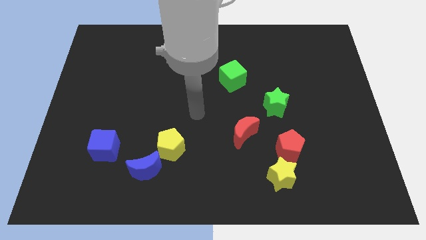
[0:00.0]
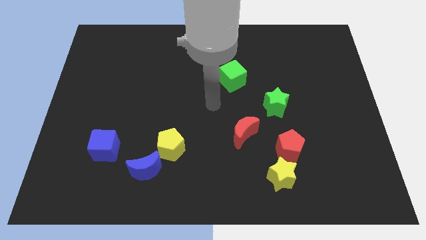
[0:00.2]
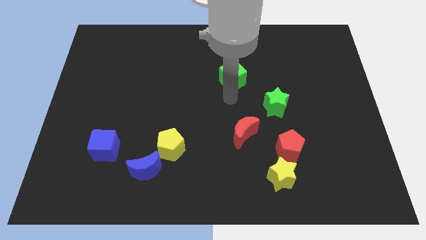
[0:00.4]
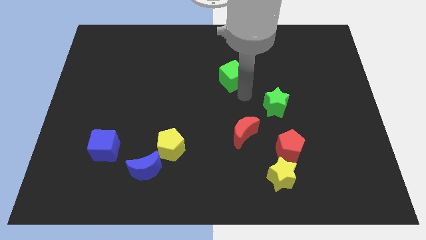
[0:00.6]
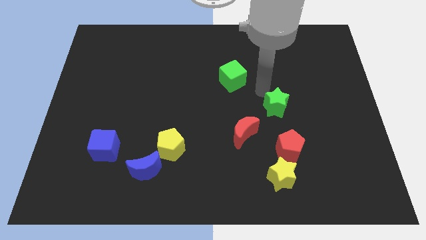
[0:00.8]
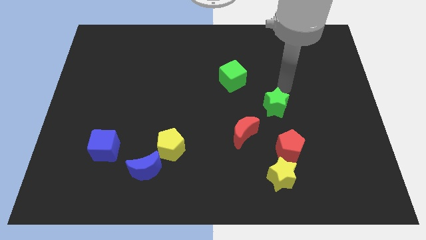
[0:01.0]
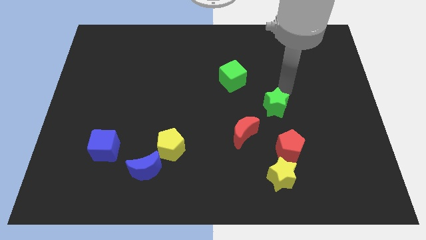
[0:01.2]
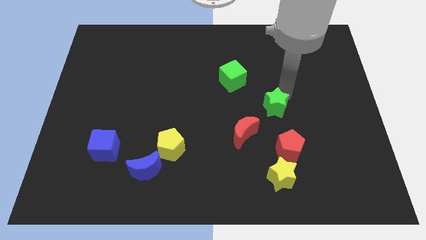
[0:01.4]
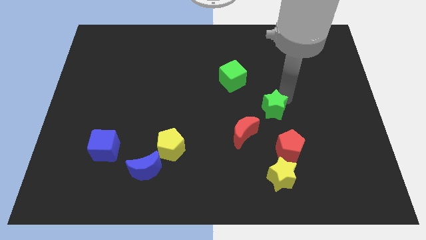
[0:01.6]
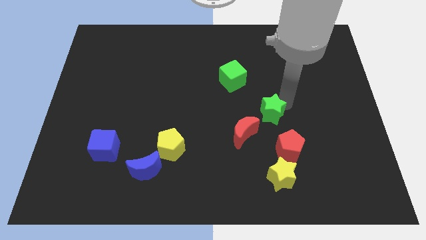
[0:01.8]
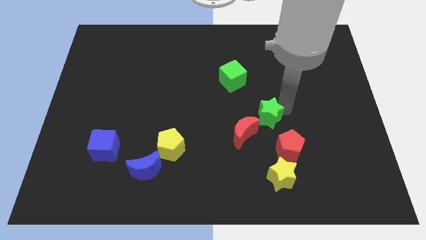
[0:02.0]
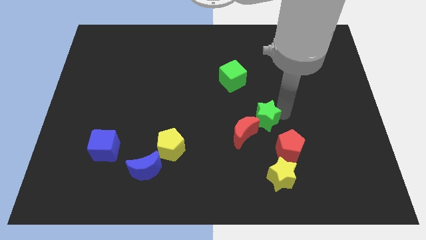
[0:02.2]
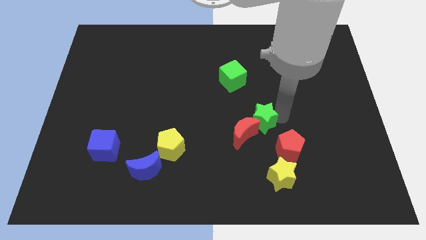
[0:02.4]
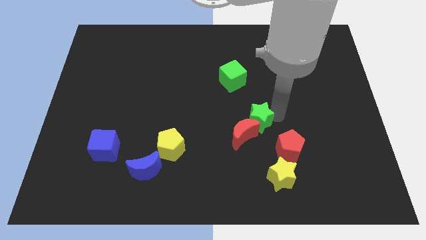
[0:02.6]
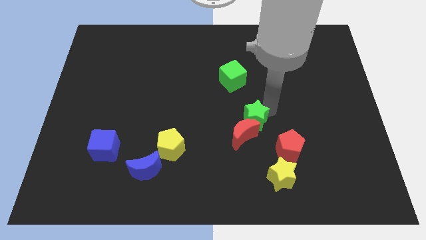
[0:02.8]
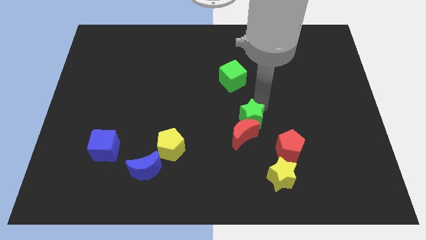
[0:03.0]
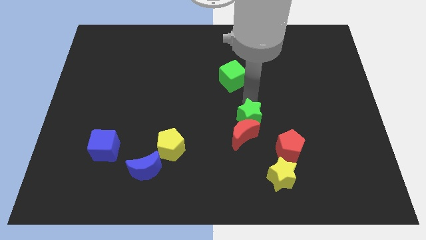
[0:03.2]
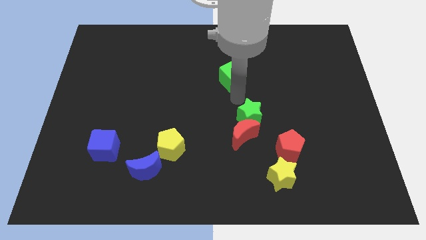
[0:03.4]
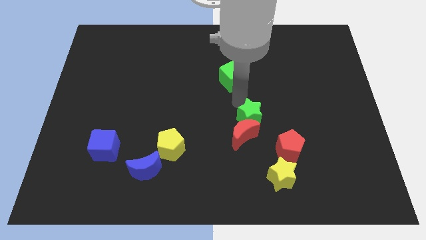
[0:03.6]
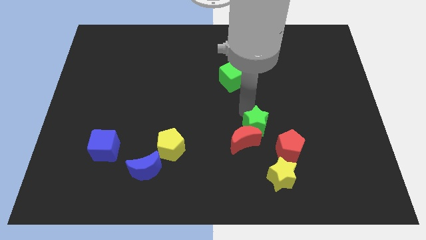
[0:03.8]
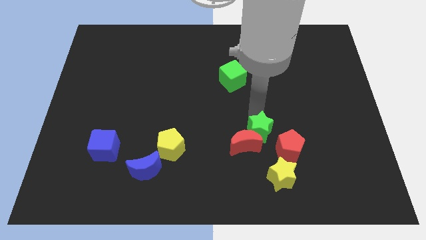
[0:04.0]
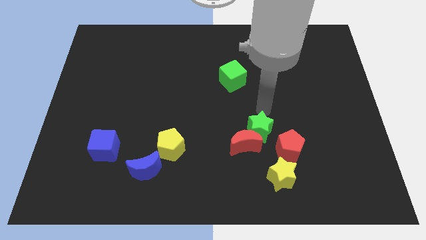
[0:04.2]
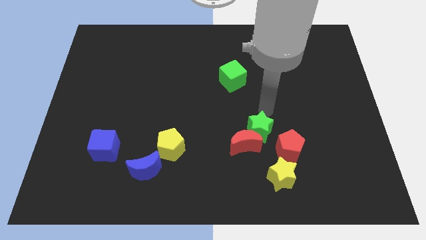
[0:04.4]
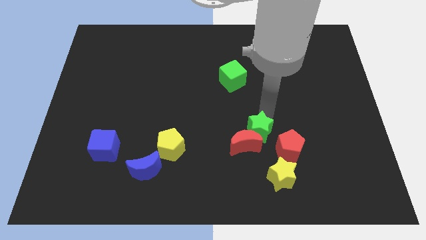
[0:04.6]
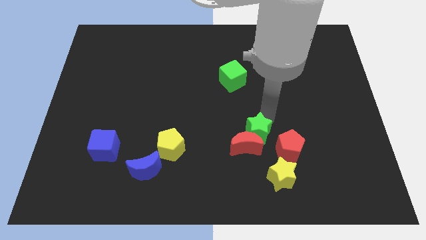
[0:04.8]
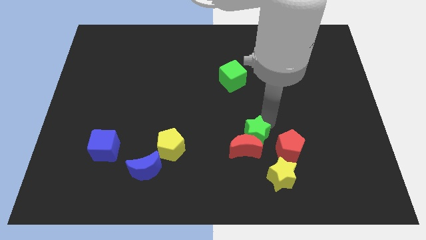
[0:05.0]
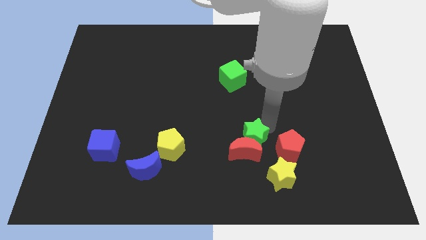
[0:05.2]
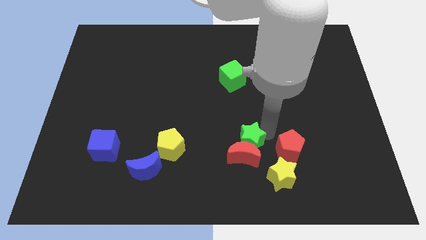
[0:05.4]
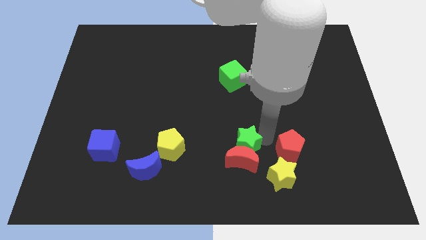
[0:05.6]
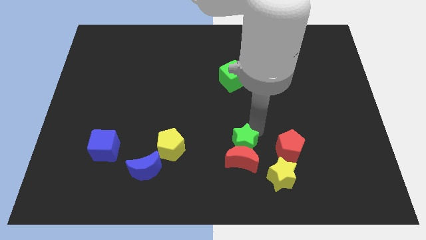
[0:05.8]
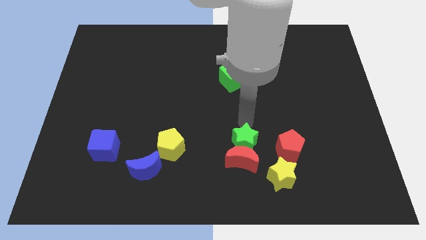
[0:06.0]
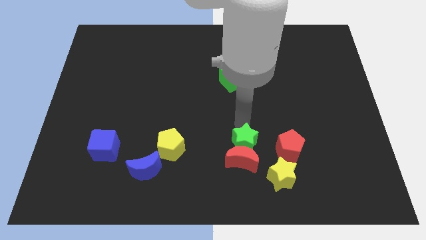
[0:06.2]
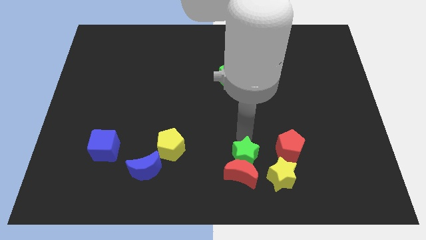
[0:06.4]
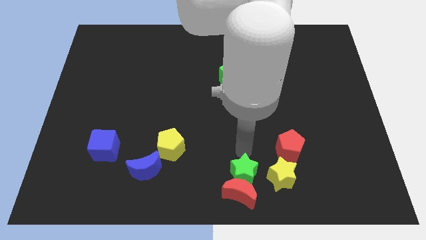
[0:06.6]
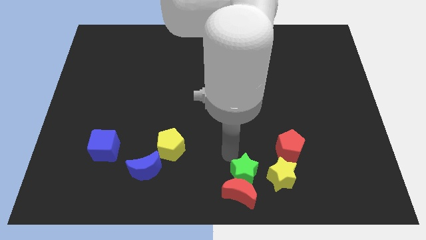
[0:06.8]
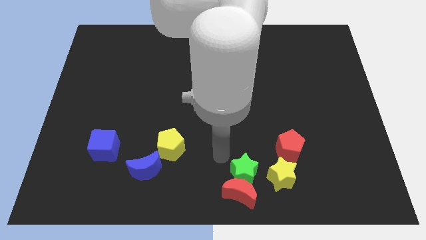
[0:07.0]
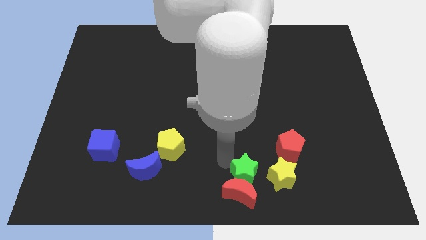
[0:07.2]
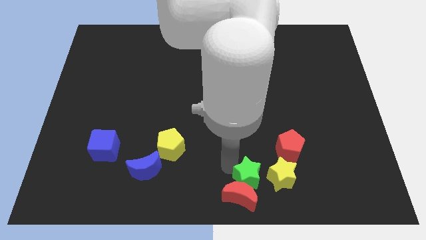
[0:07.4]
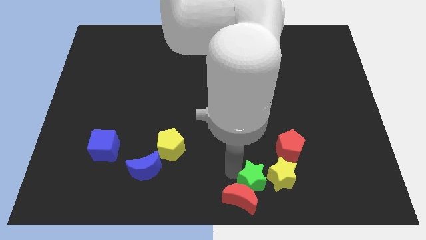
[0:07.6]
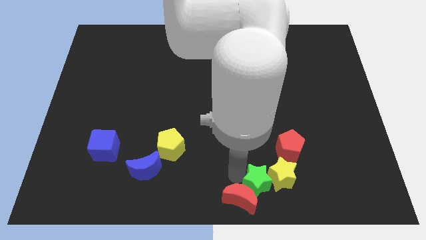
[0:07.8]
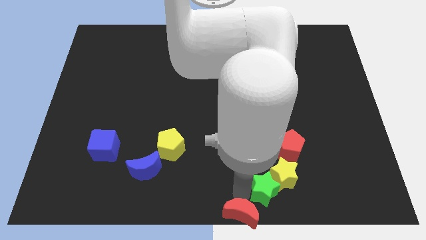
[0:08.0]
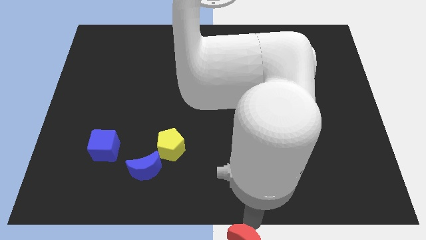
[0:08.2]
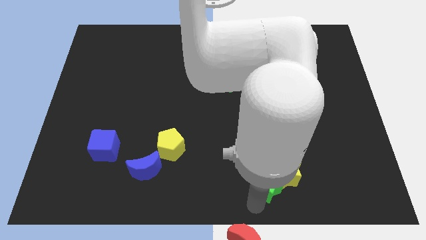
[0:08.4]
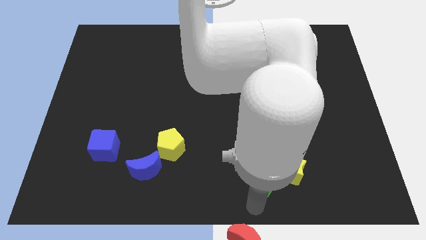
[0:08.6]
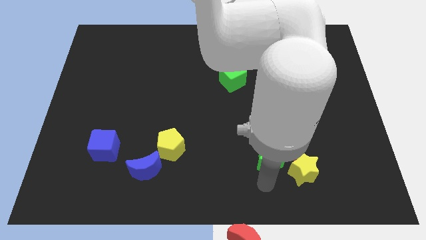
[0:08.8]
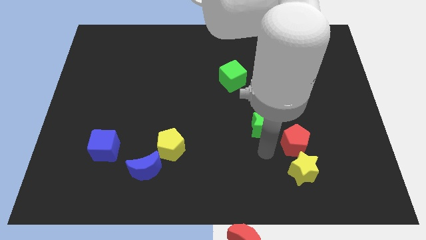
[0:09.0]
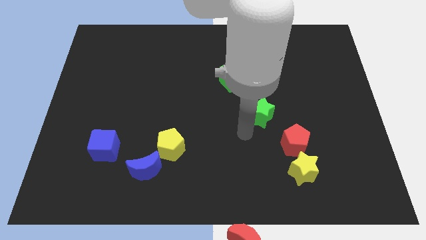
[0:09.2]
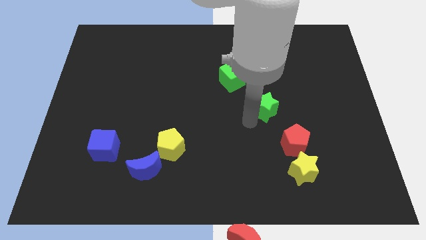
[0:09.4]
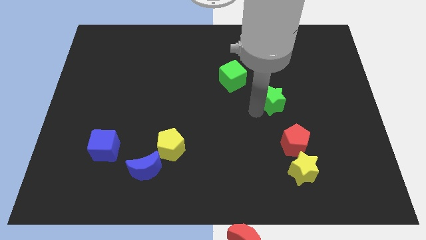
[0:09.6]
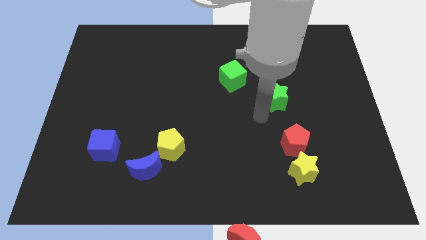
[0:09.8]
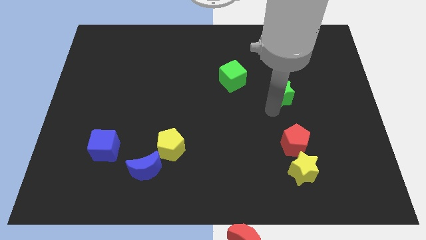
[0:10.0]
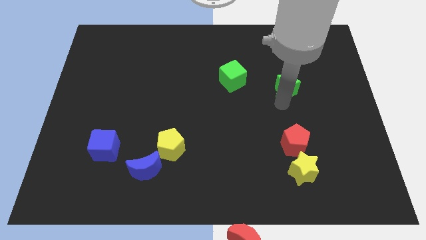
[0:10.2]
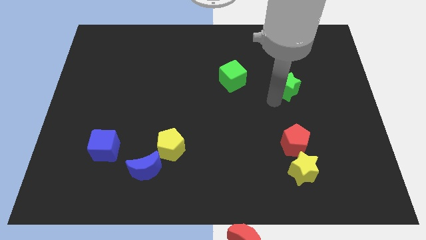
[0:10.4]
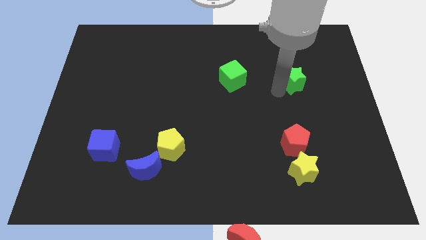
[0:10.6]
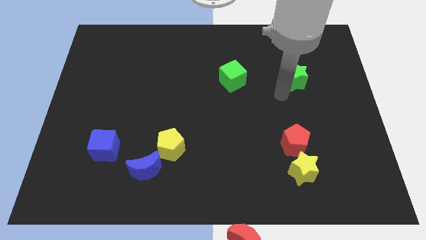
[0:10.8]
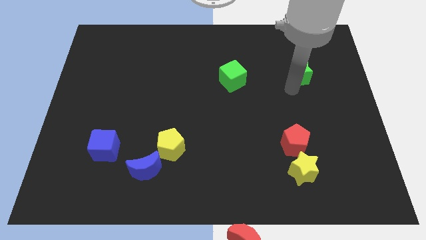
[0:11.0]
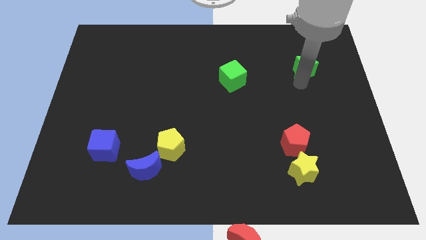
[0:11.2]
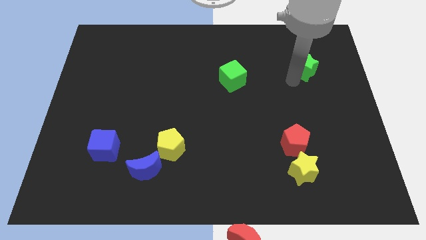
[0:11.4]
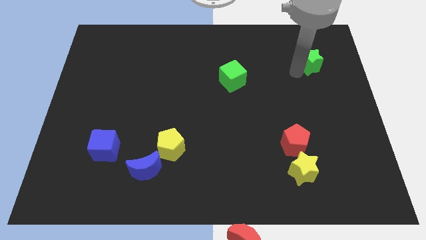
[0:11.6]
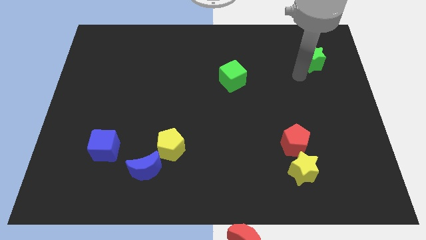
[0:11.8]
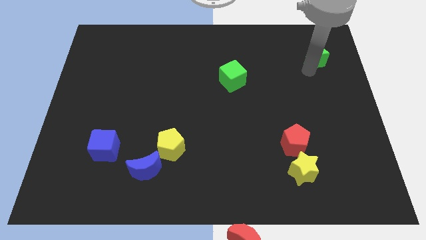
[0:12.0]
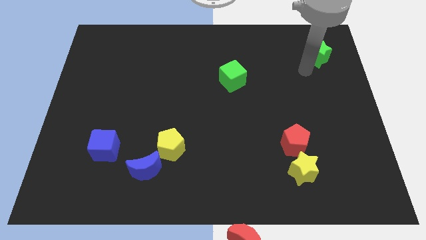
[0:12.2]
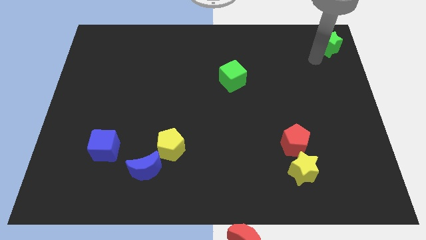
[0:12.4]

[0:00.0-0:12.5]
push the green star to the top right

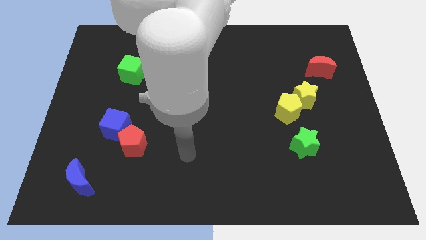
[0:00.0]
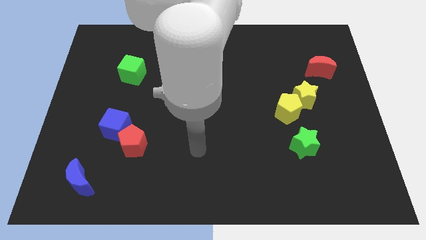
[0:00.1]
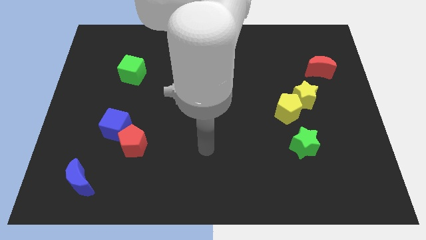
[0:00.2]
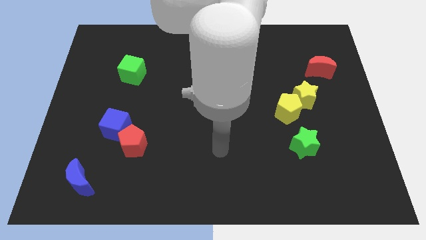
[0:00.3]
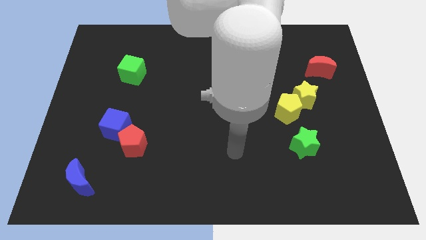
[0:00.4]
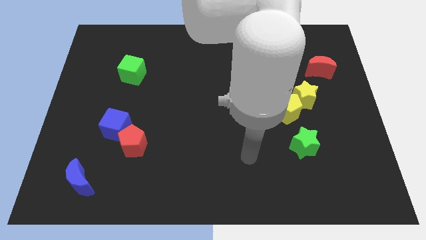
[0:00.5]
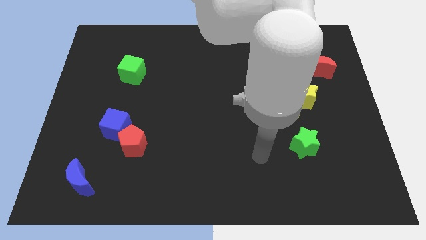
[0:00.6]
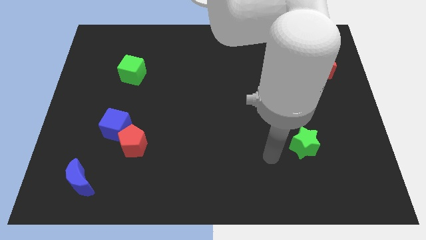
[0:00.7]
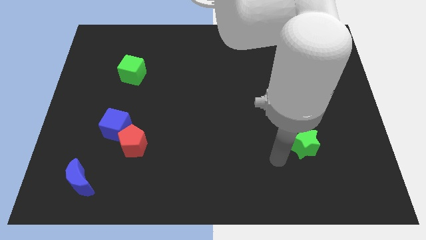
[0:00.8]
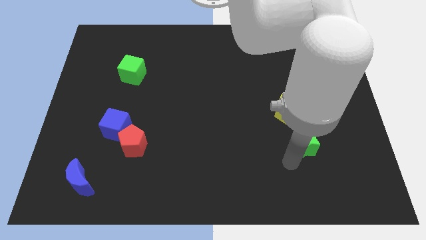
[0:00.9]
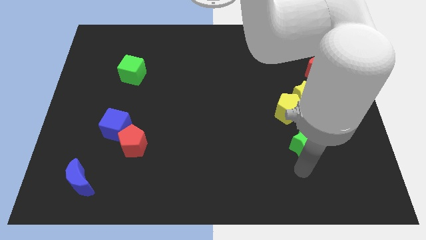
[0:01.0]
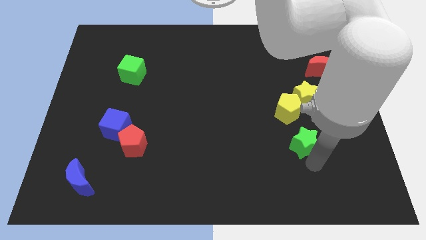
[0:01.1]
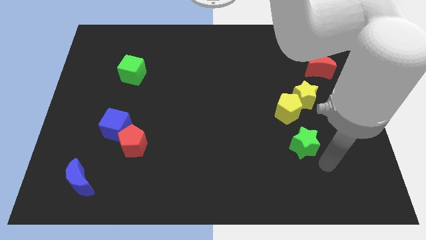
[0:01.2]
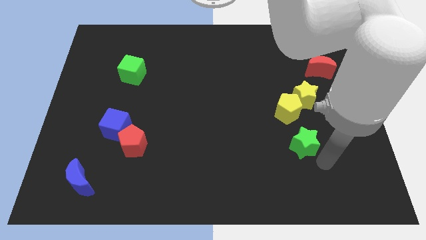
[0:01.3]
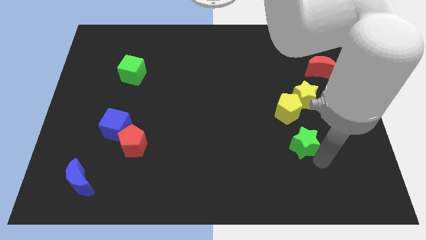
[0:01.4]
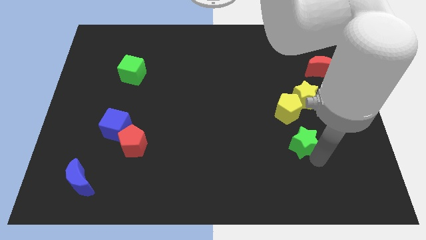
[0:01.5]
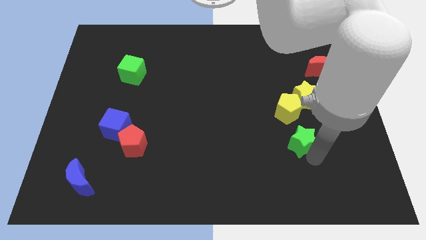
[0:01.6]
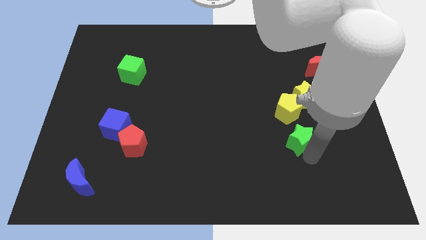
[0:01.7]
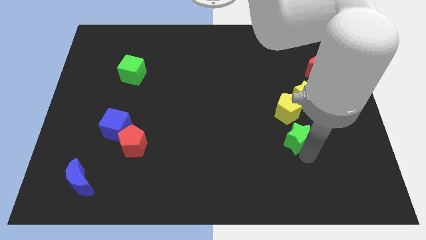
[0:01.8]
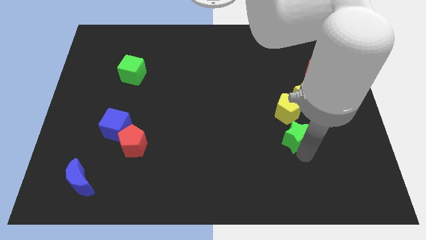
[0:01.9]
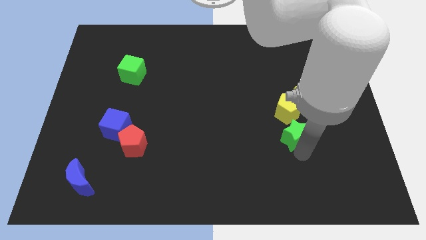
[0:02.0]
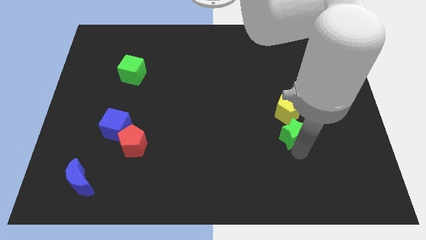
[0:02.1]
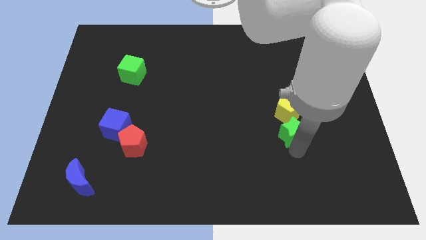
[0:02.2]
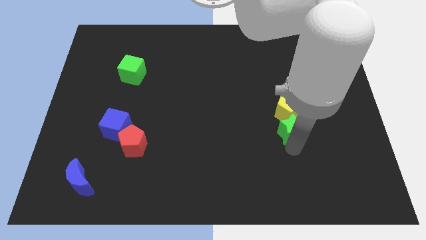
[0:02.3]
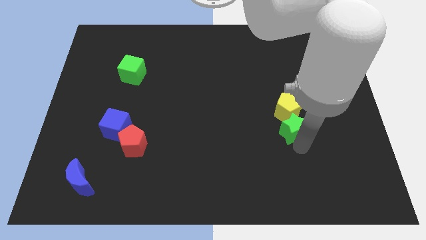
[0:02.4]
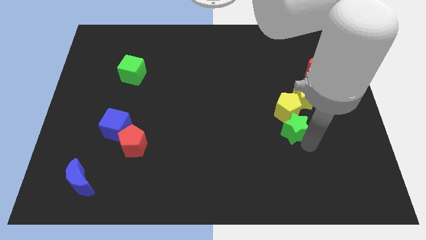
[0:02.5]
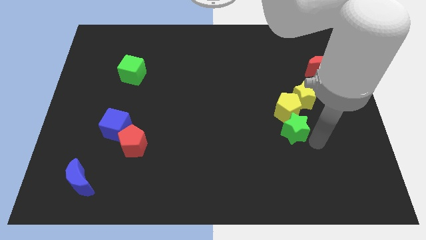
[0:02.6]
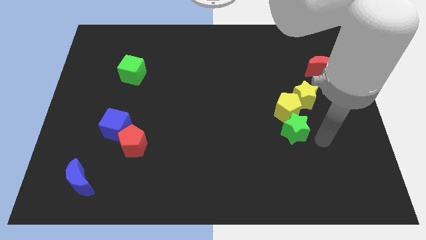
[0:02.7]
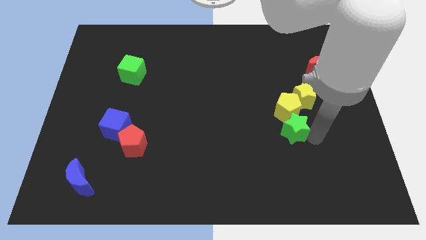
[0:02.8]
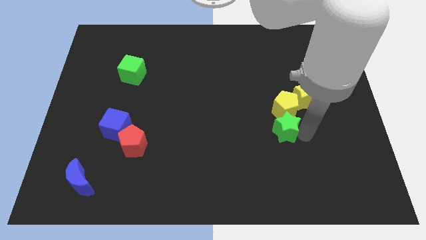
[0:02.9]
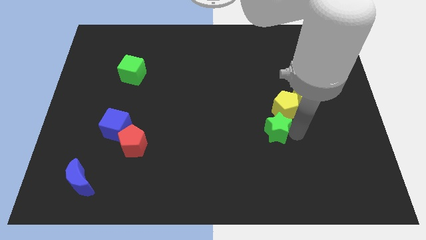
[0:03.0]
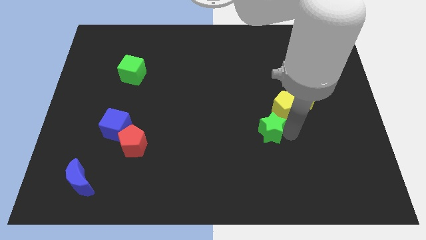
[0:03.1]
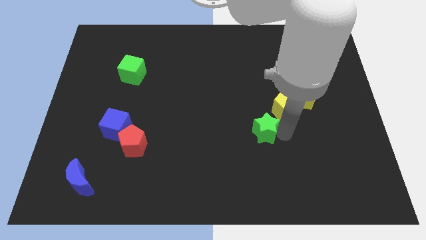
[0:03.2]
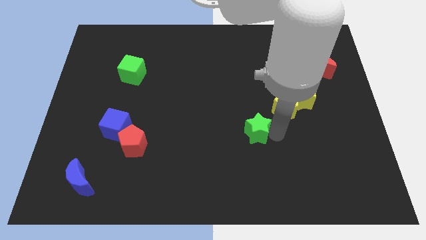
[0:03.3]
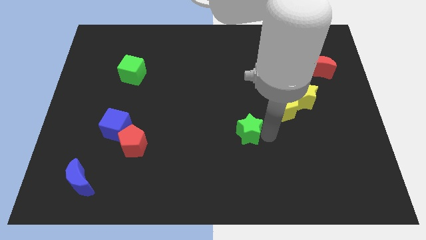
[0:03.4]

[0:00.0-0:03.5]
move the green star to the middle of the board
